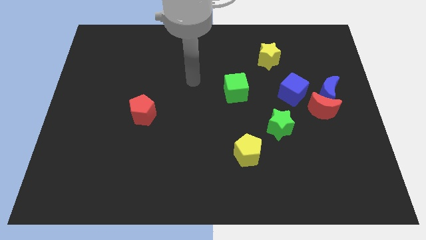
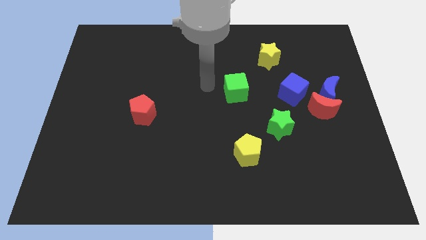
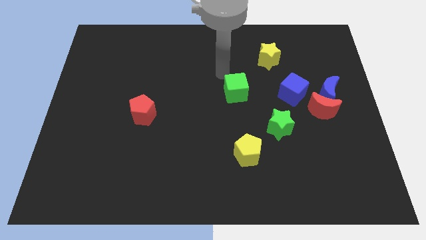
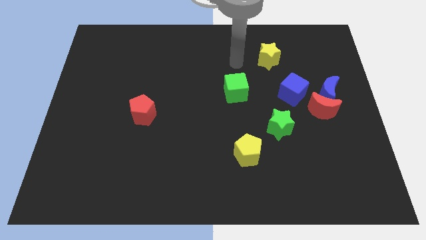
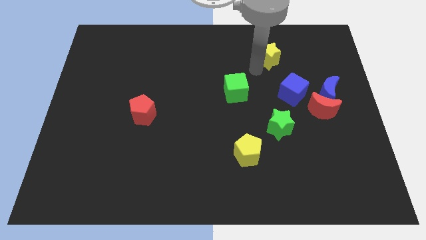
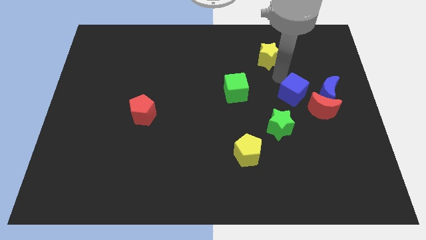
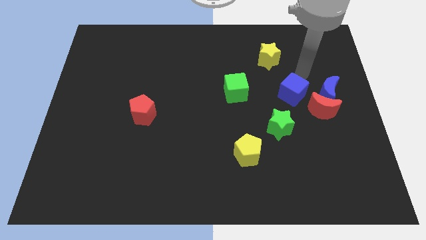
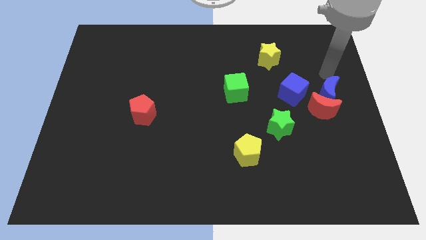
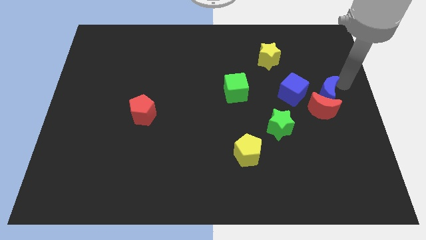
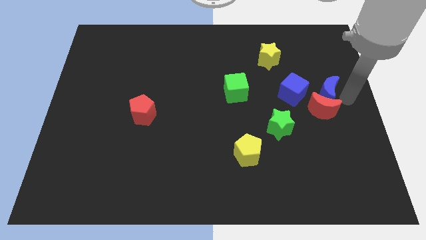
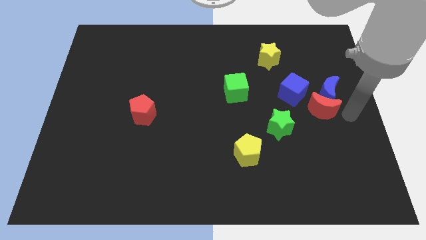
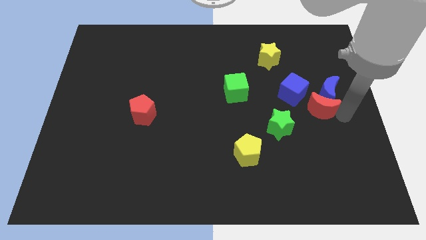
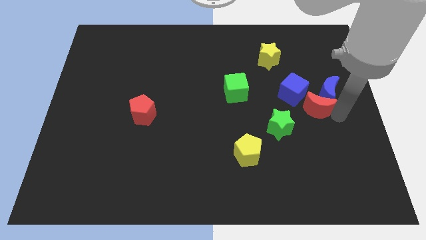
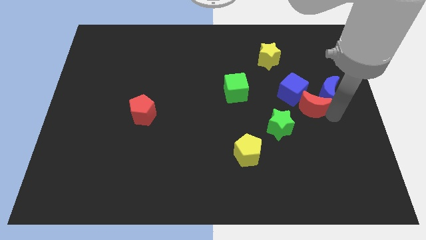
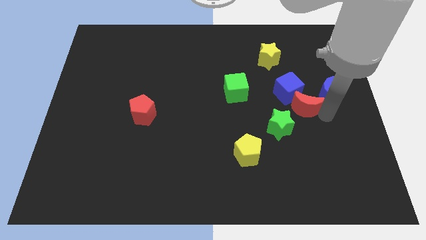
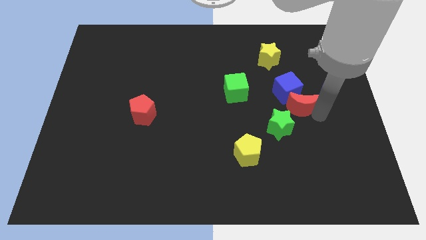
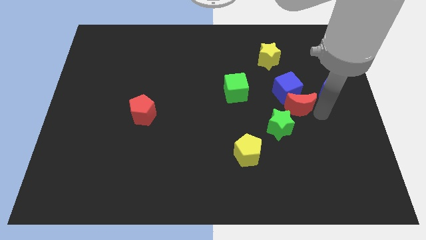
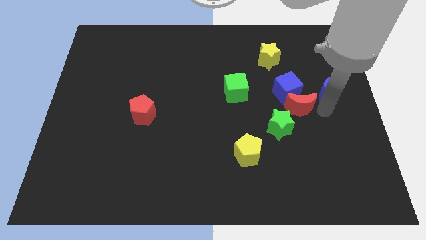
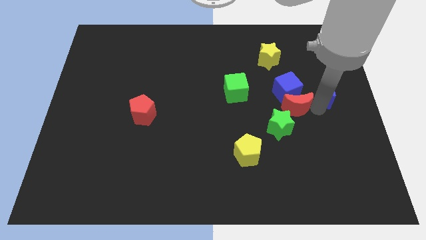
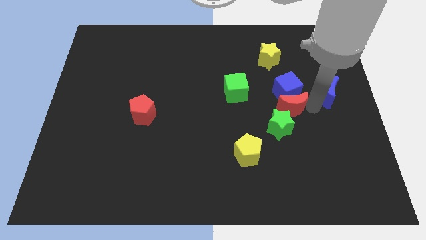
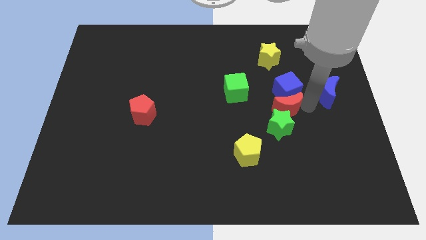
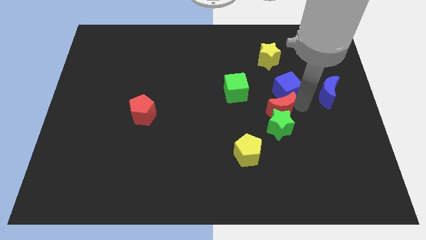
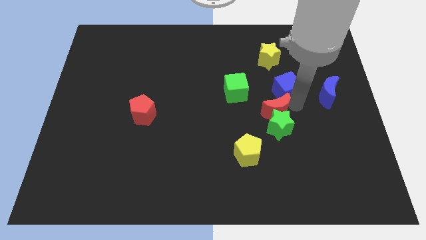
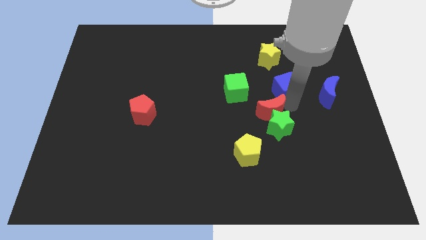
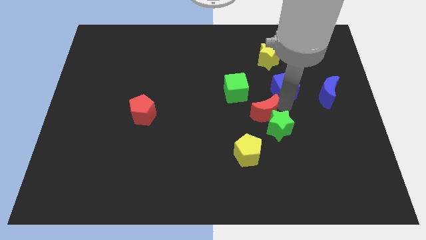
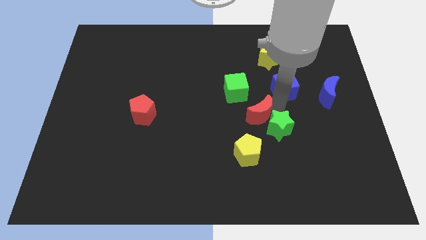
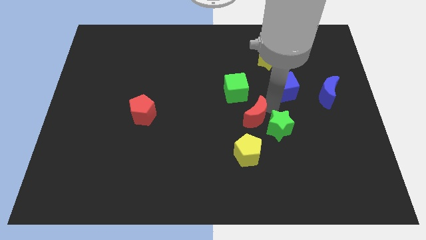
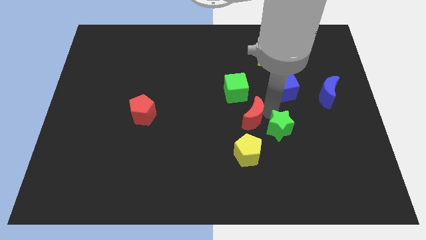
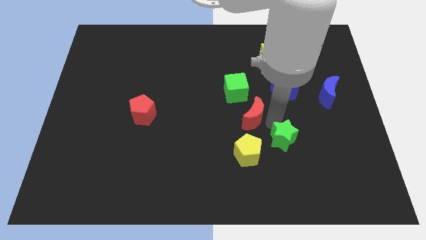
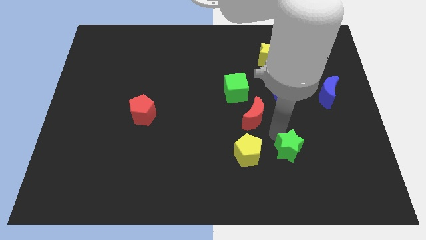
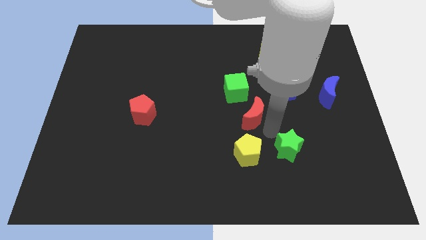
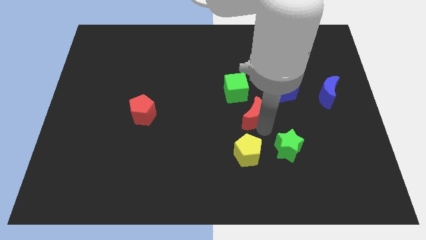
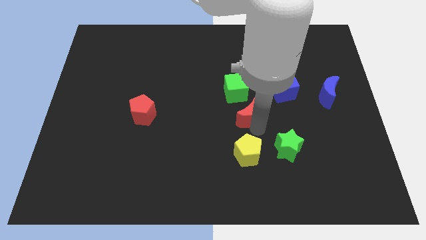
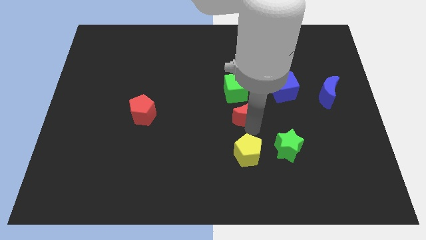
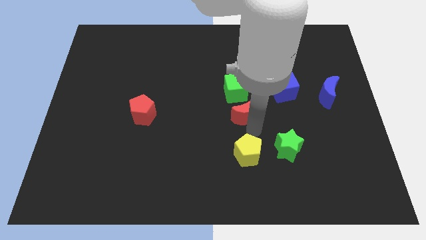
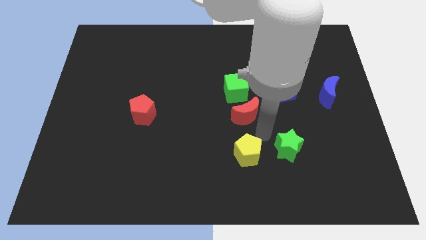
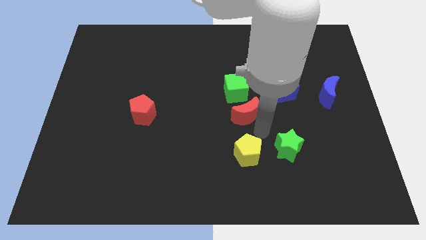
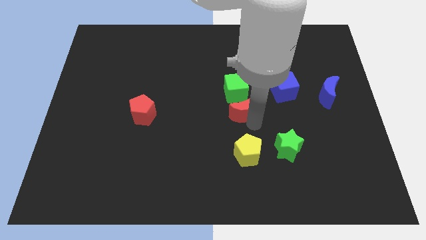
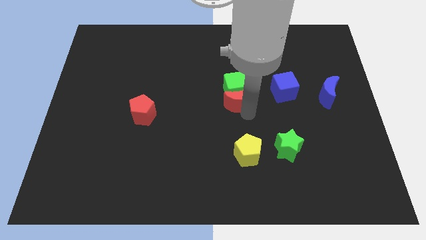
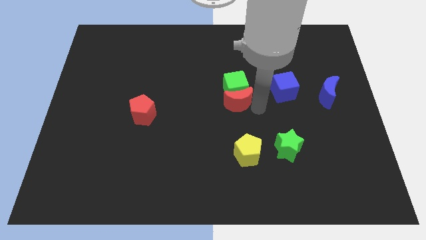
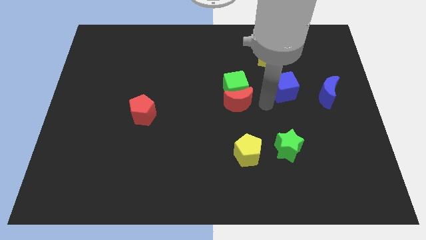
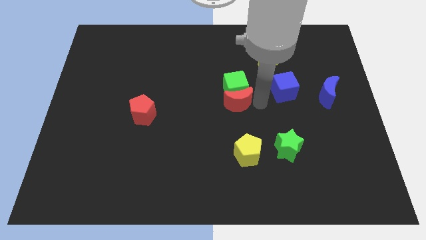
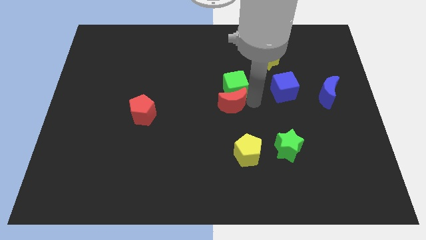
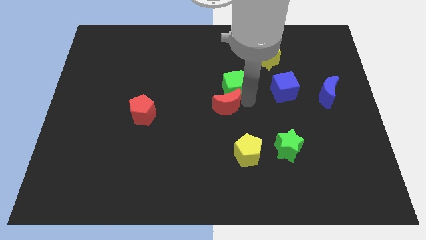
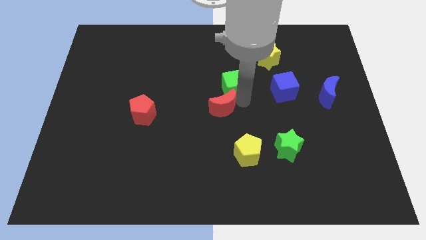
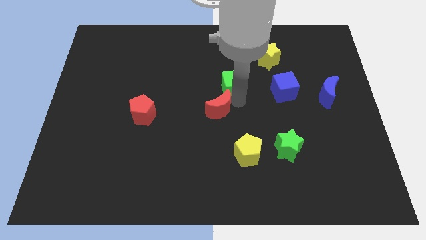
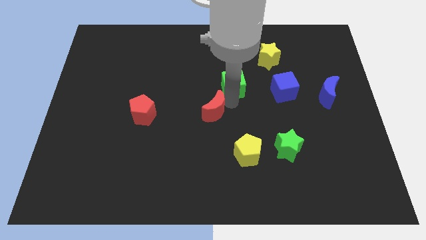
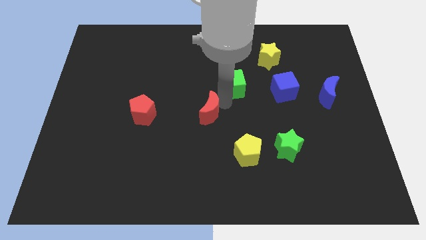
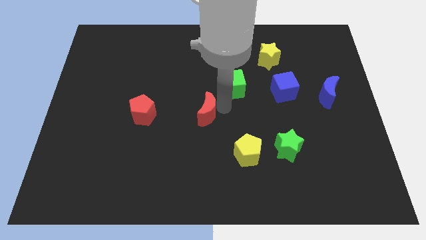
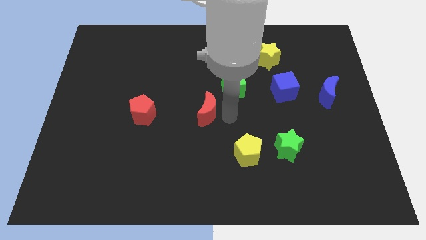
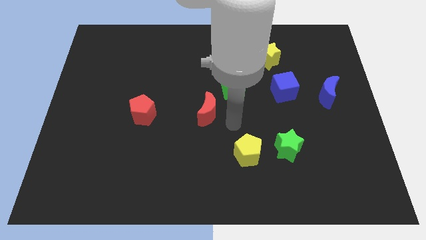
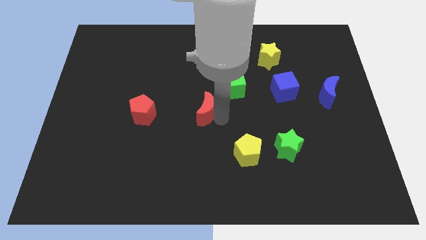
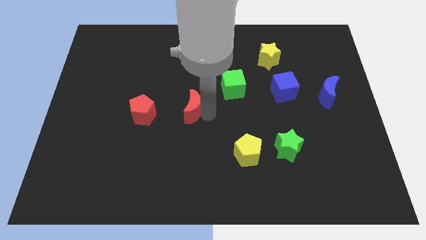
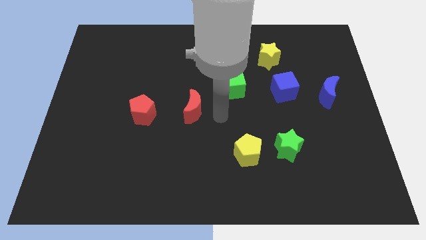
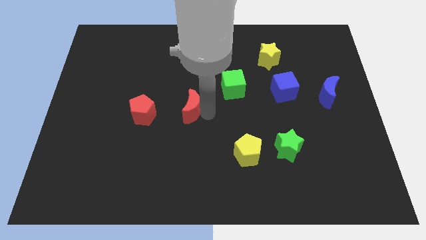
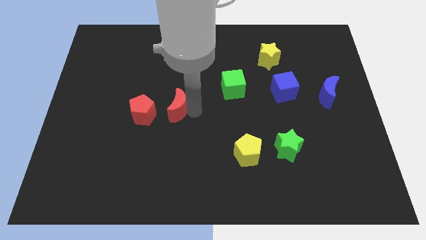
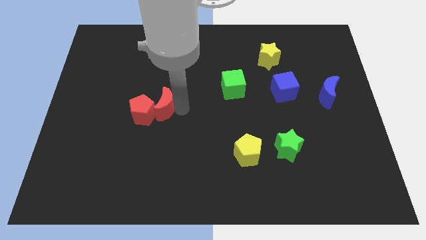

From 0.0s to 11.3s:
push the red moon to the red pentagon

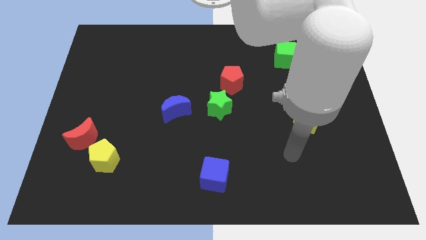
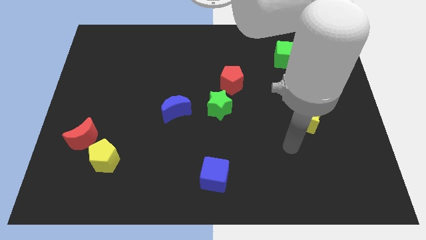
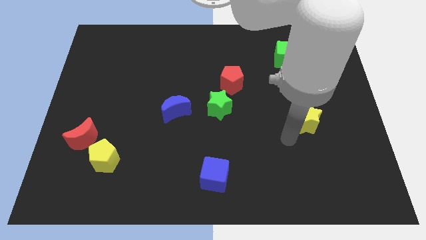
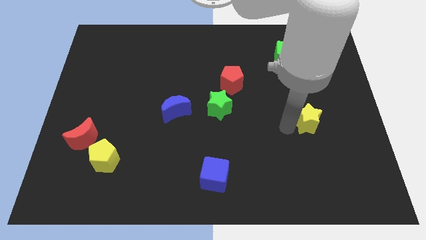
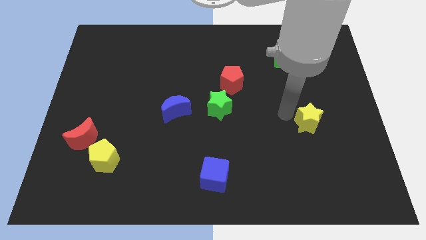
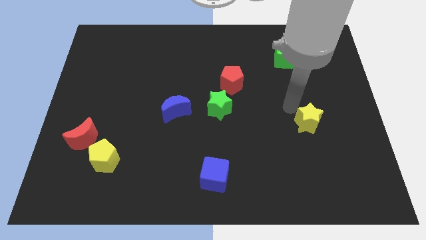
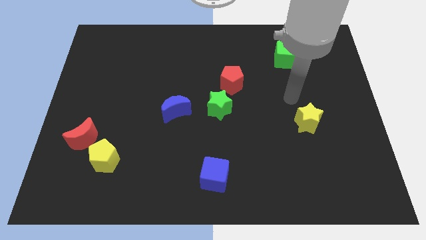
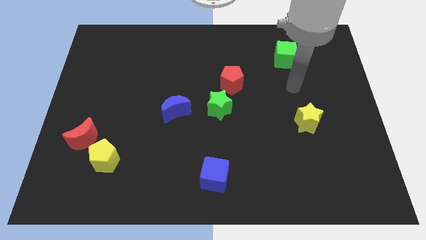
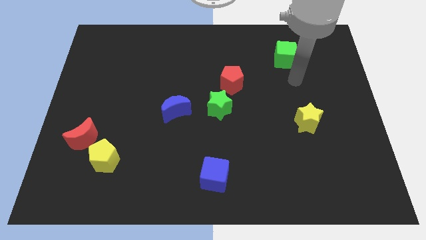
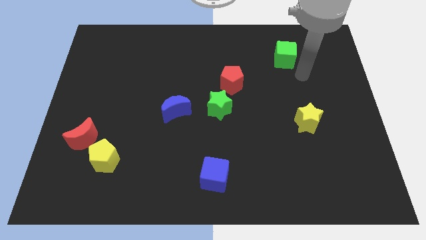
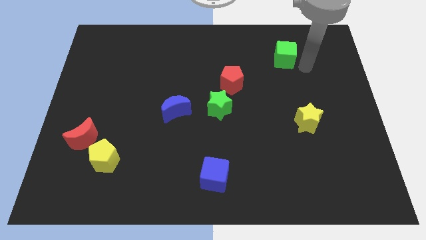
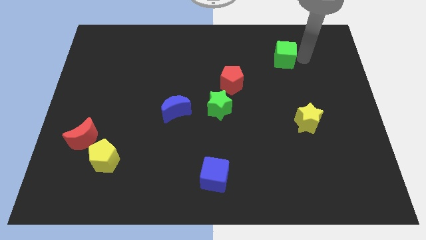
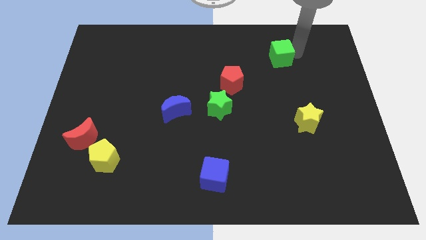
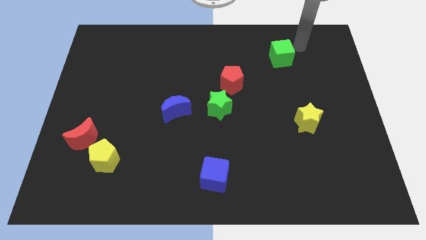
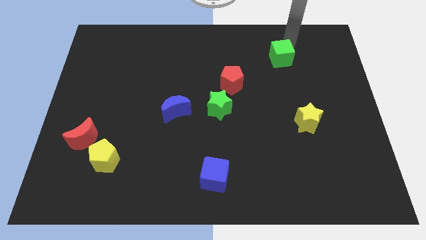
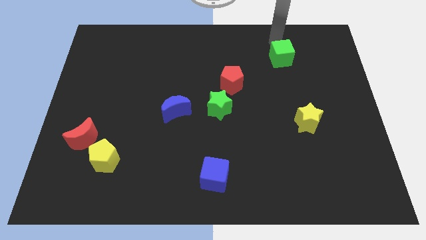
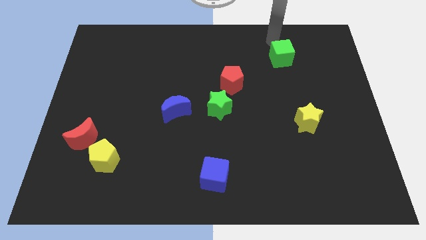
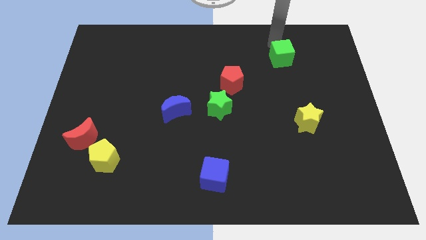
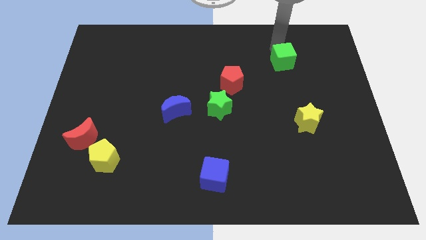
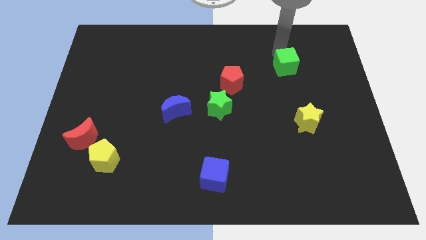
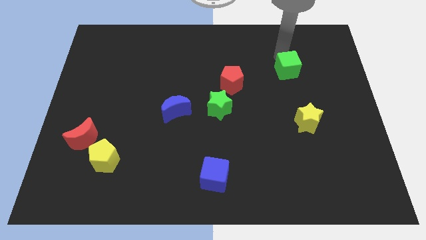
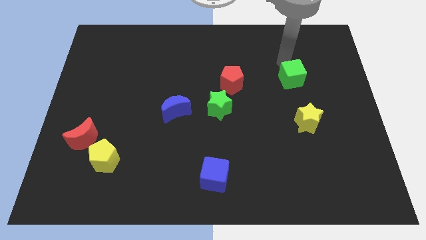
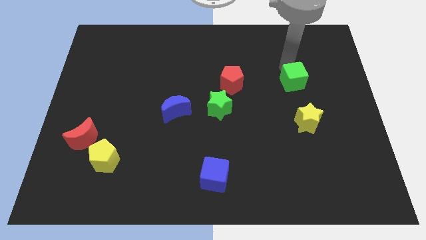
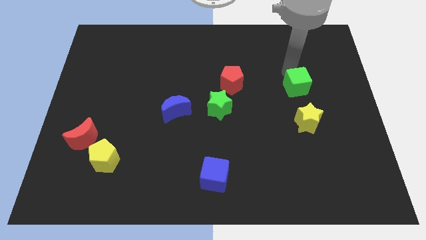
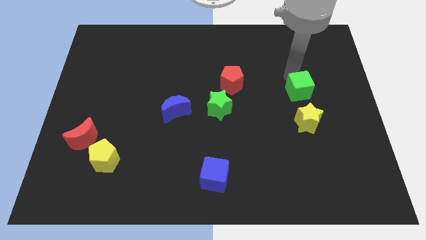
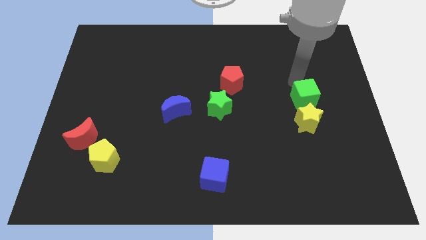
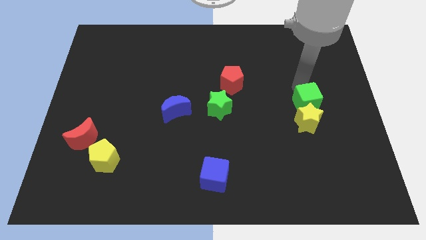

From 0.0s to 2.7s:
slide the green cube close to the yellow star
